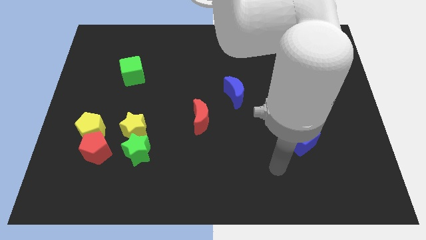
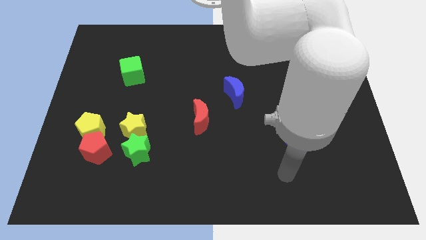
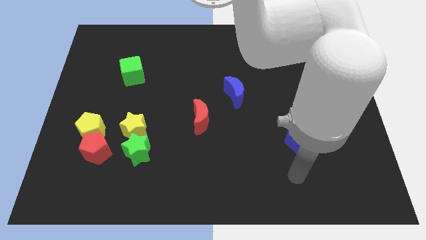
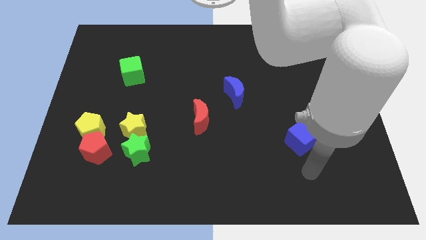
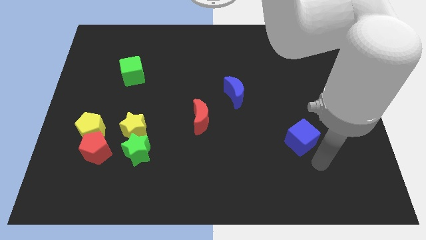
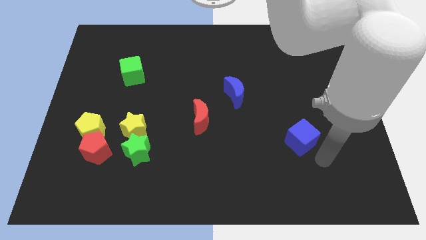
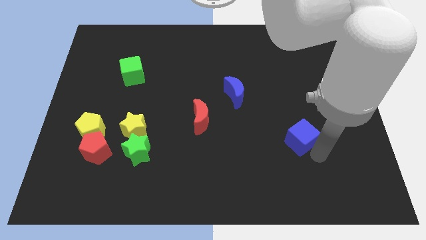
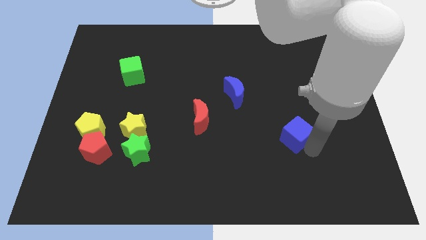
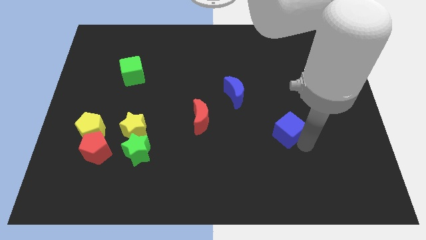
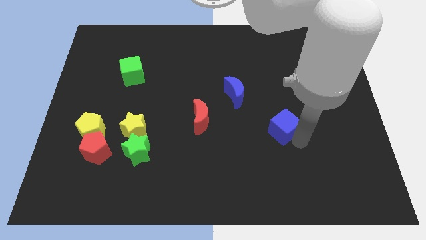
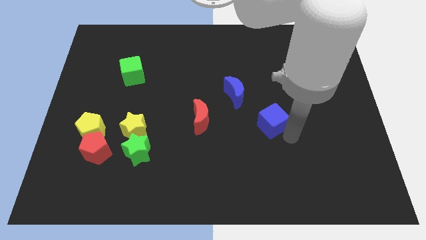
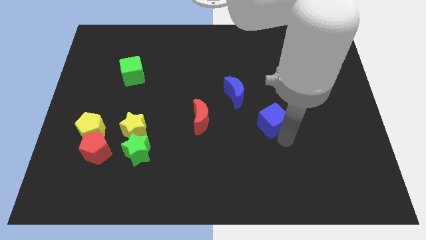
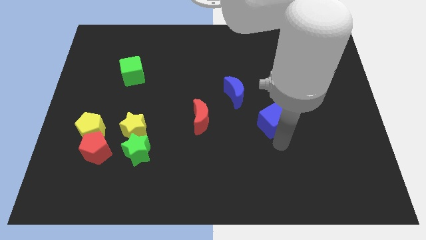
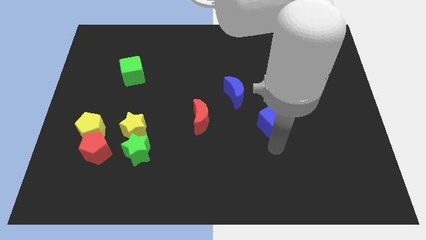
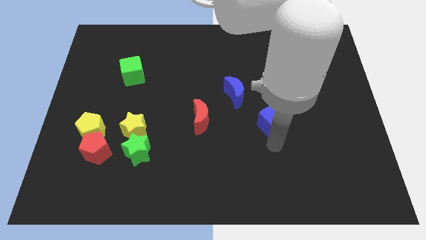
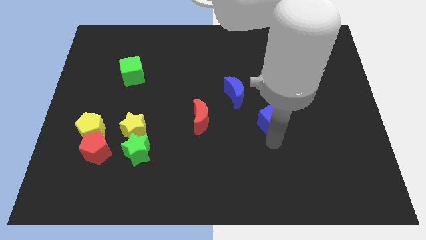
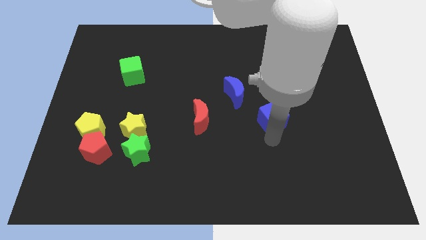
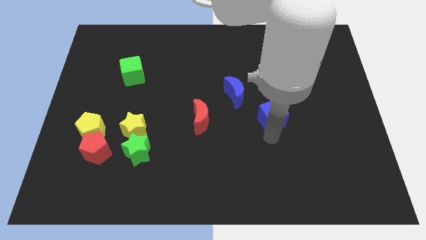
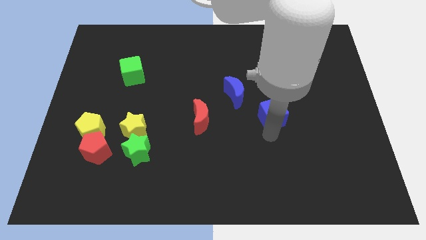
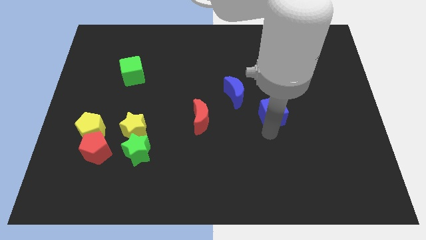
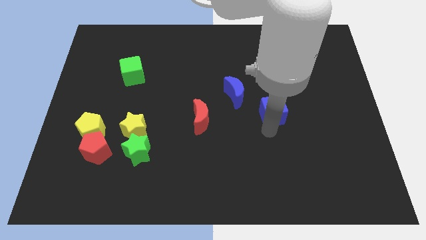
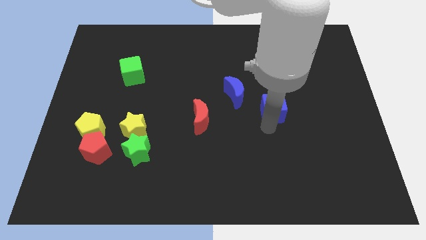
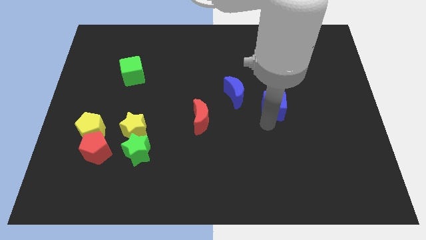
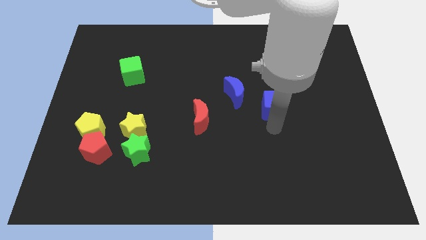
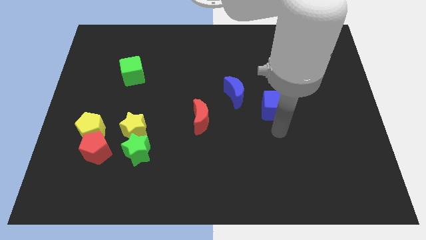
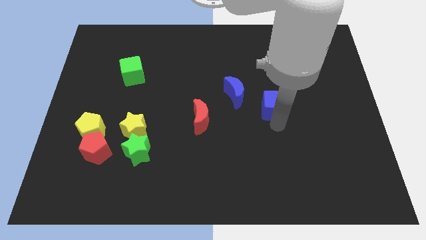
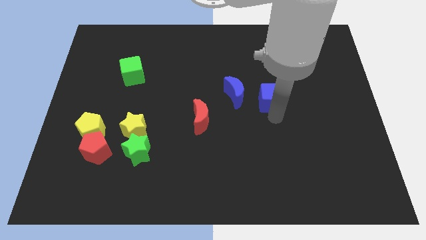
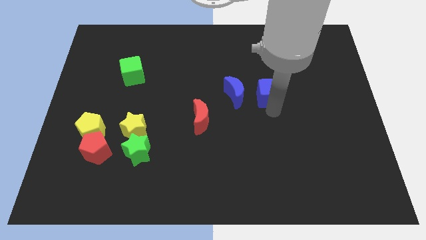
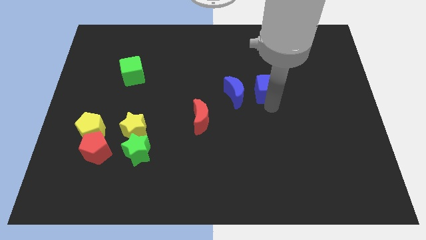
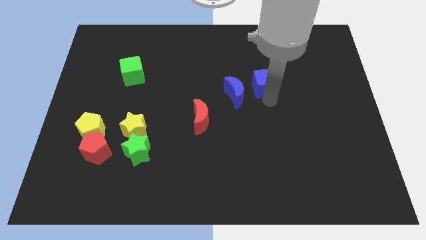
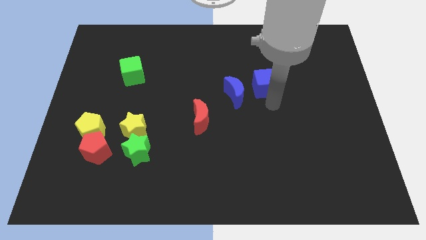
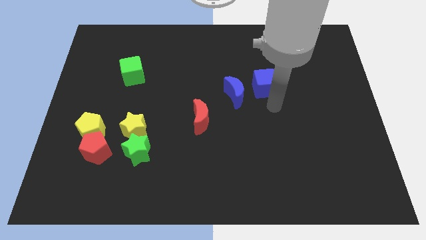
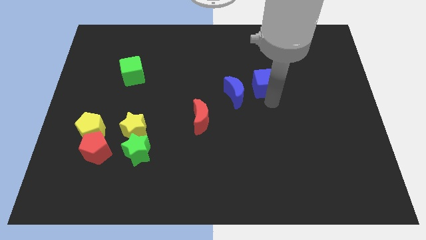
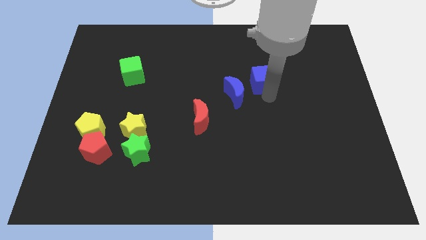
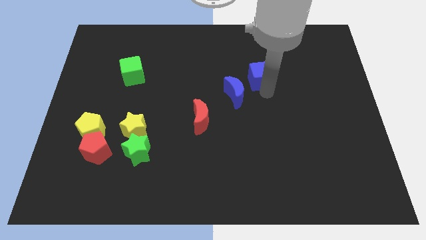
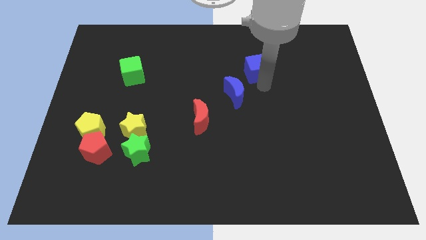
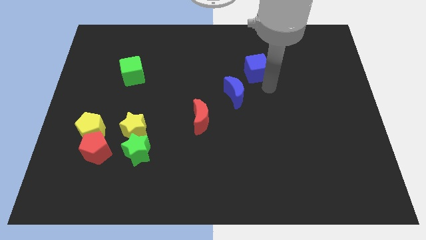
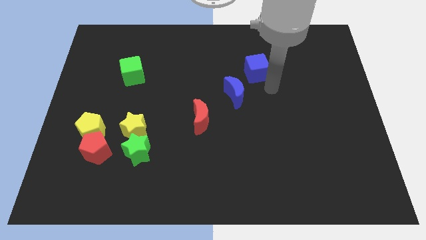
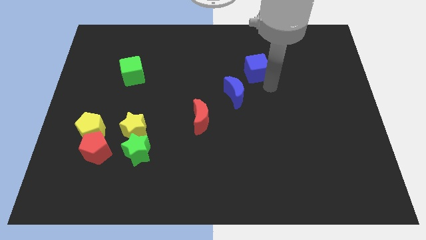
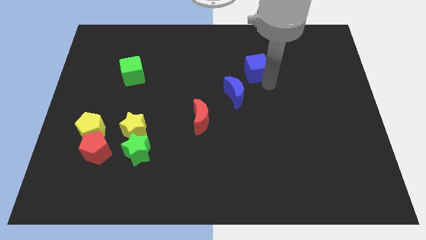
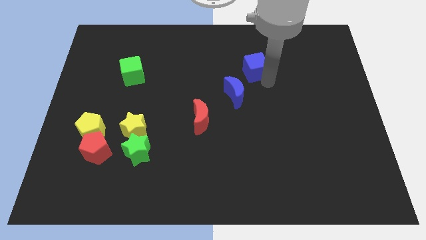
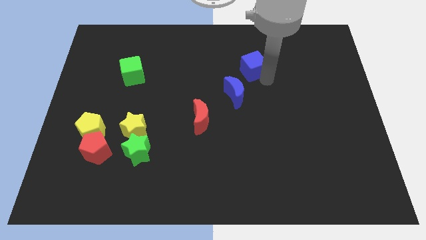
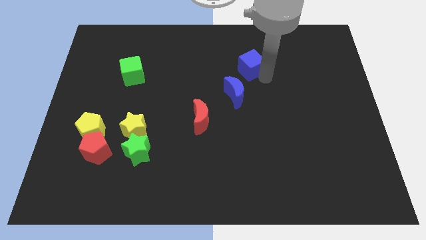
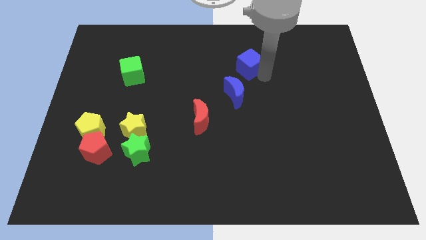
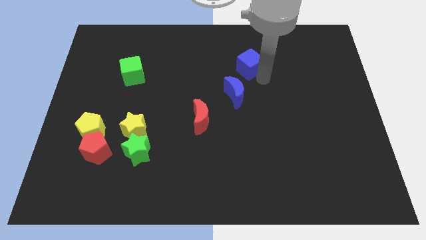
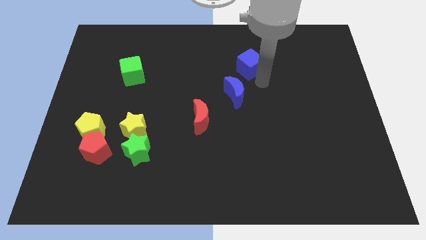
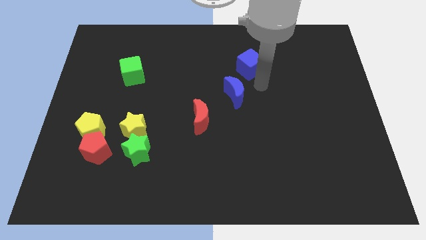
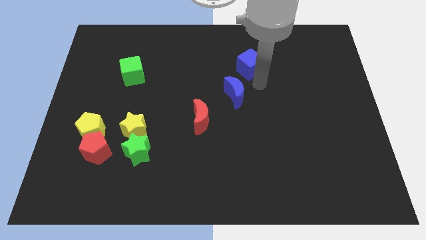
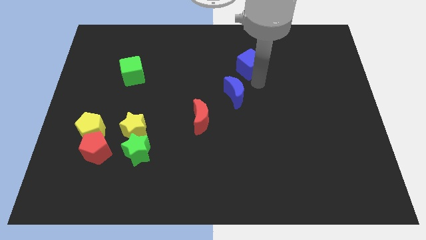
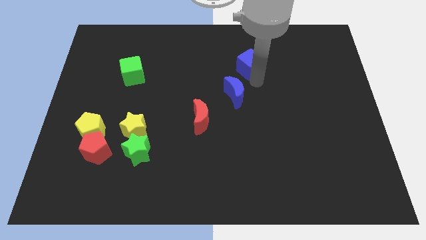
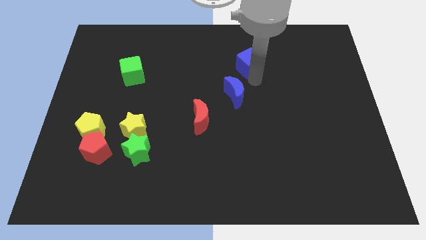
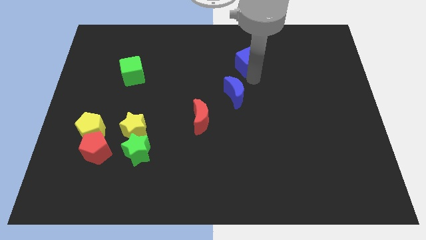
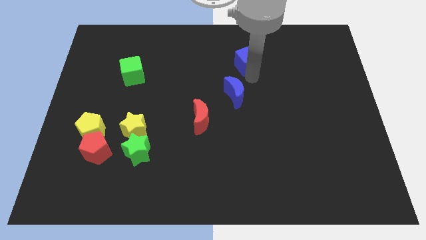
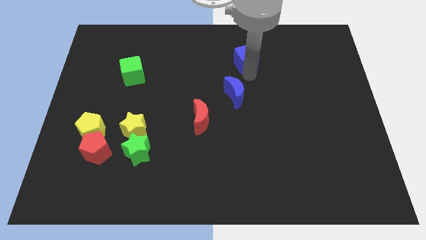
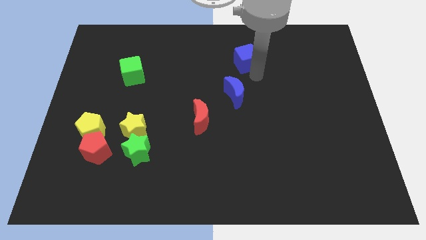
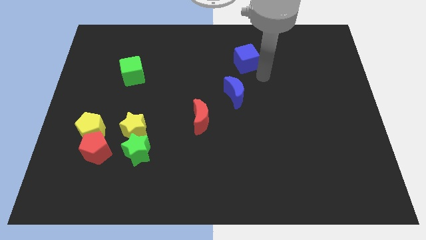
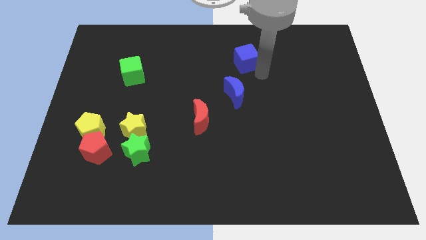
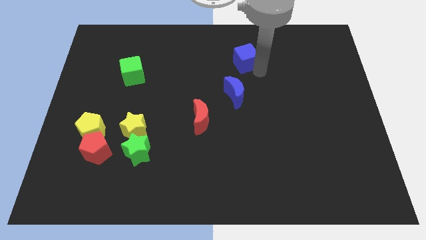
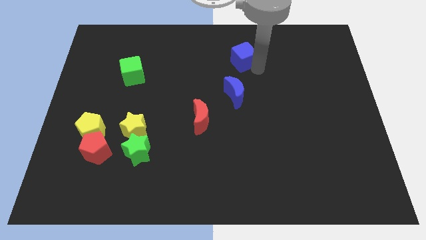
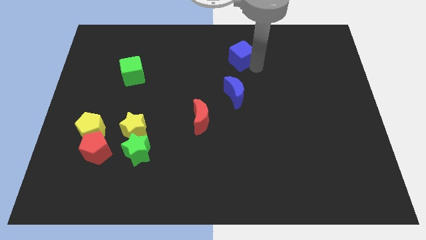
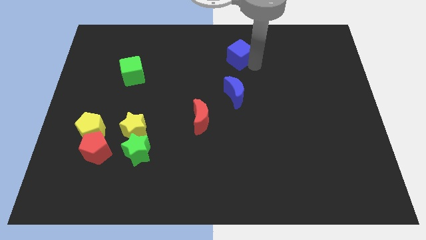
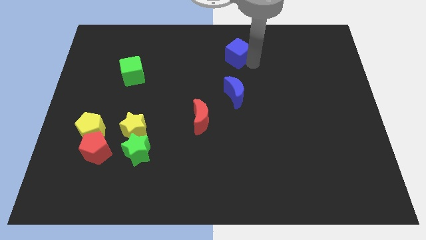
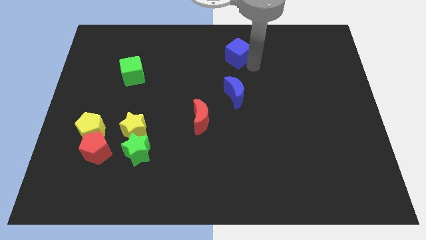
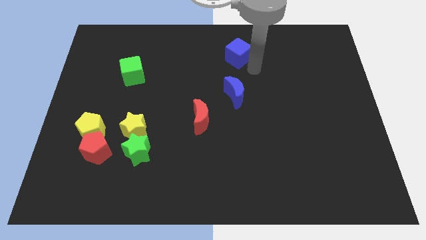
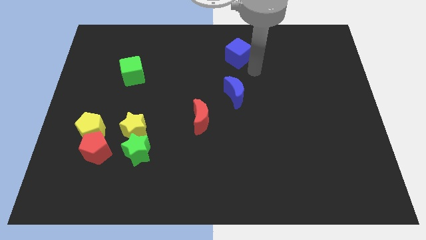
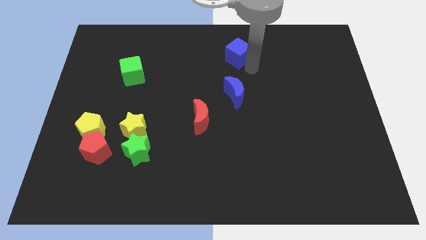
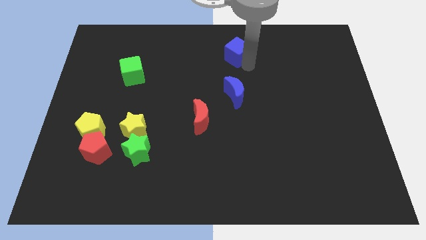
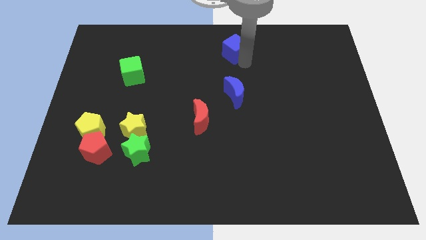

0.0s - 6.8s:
slide the blue cube to the top side

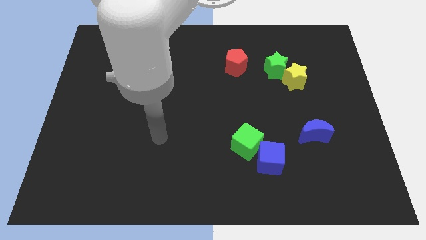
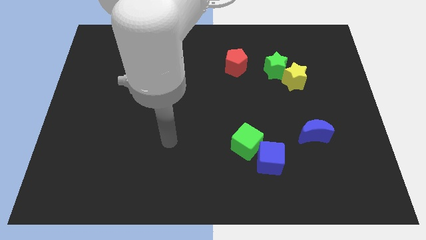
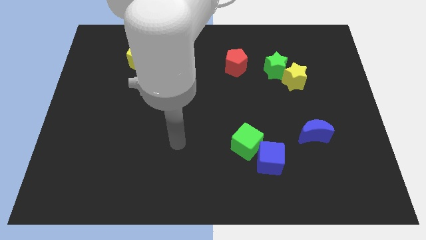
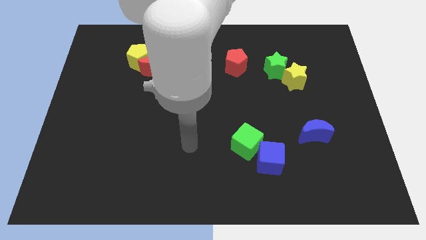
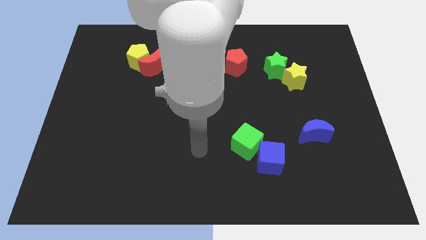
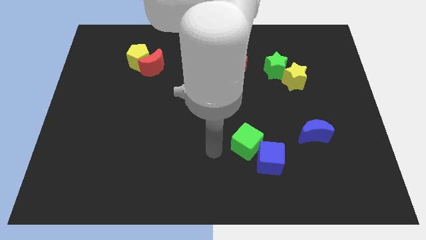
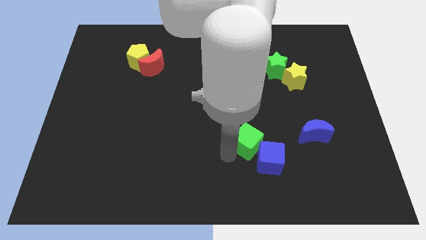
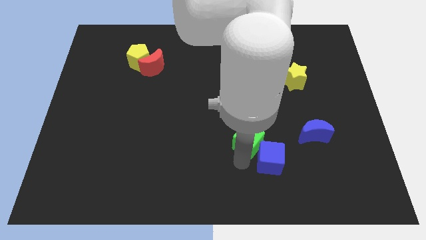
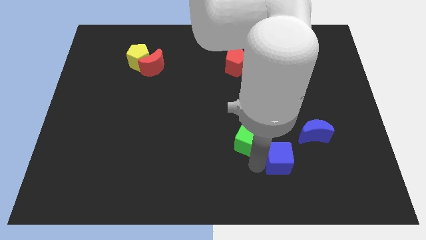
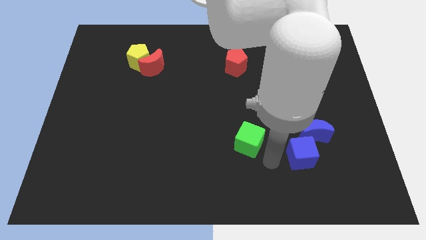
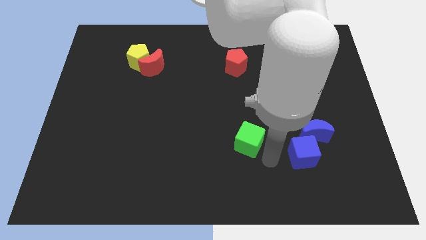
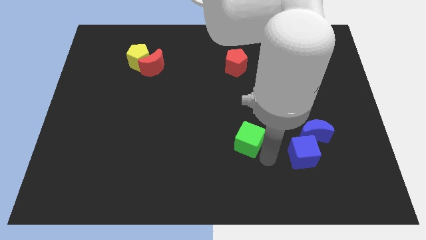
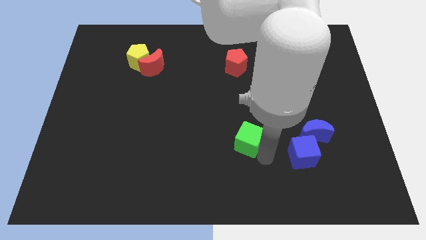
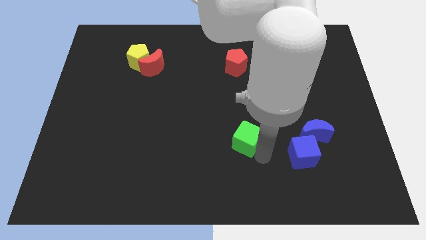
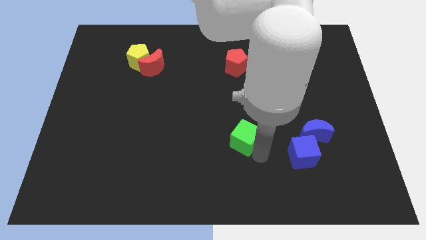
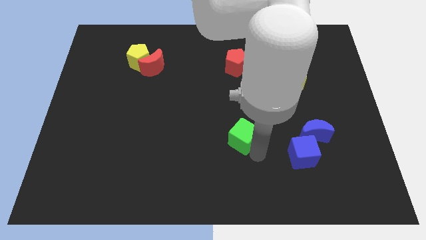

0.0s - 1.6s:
slide the green cube to the center of the board
